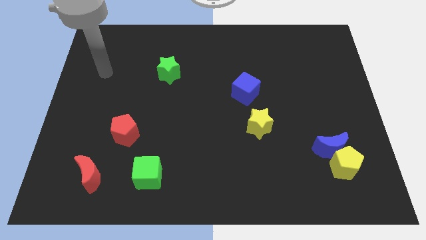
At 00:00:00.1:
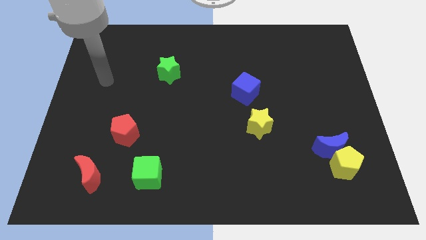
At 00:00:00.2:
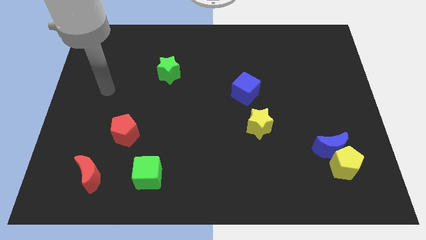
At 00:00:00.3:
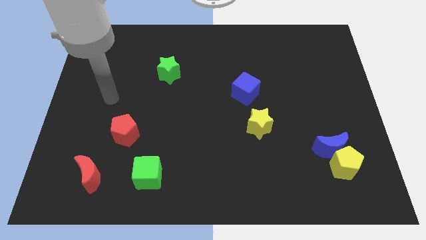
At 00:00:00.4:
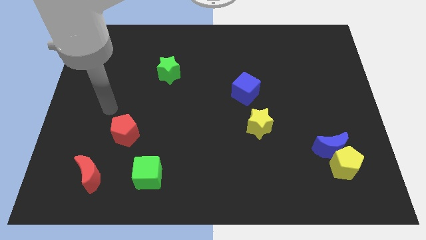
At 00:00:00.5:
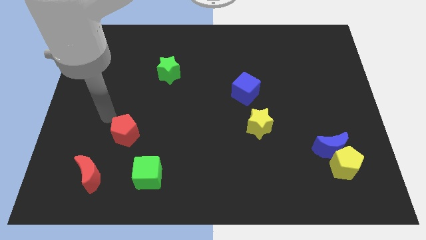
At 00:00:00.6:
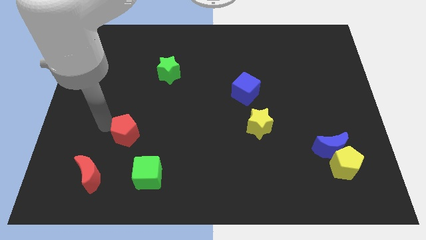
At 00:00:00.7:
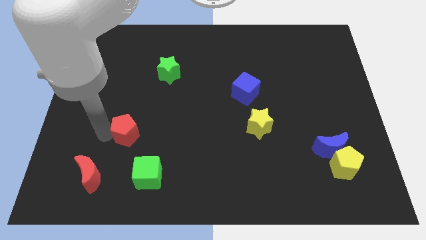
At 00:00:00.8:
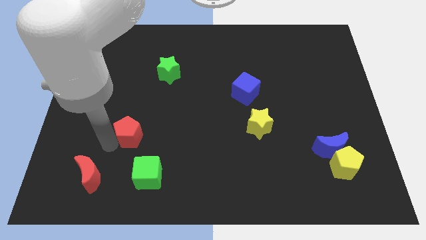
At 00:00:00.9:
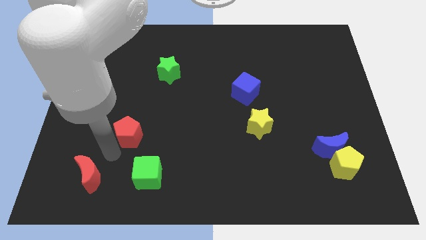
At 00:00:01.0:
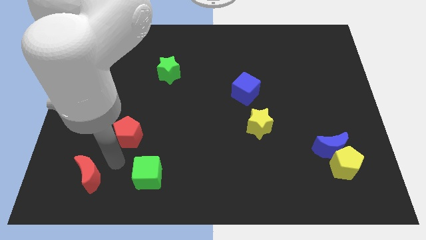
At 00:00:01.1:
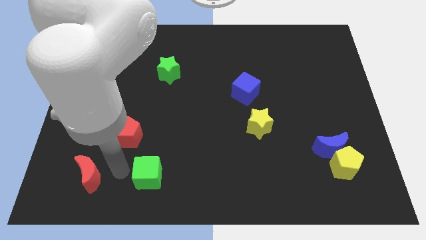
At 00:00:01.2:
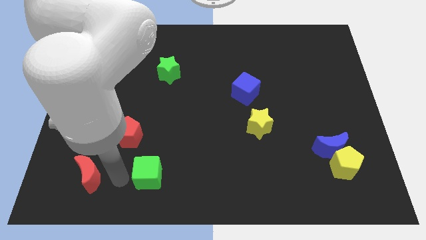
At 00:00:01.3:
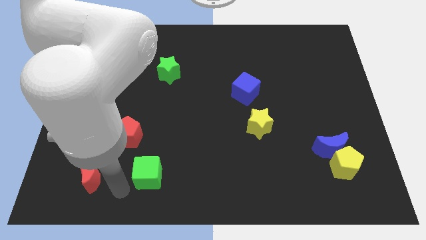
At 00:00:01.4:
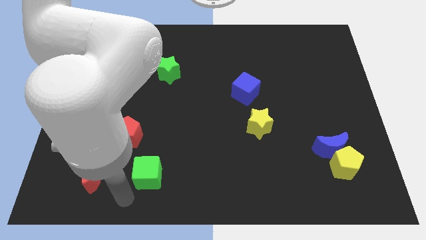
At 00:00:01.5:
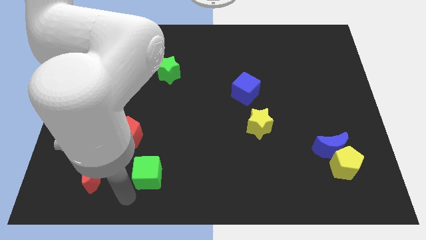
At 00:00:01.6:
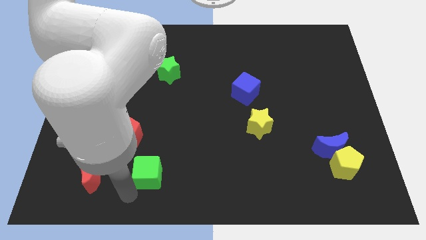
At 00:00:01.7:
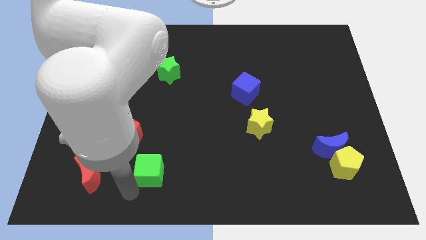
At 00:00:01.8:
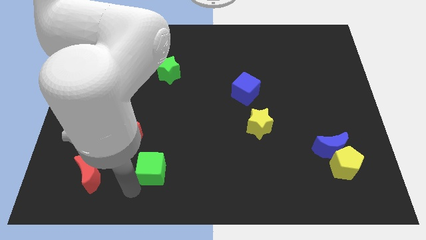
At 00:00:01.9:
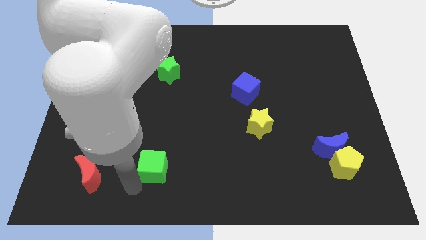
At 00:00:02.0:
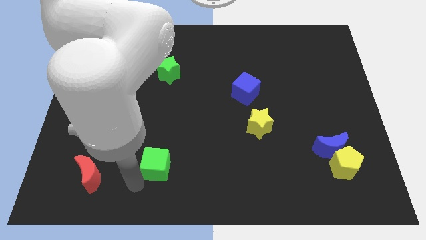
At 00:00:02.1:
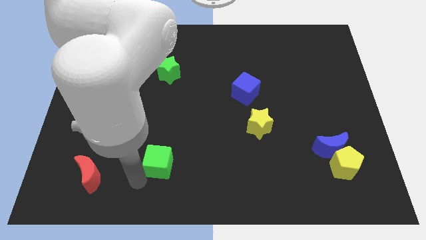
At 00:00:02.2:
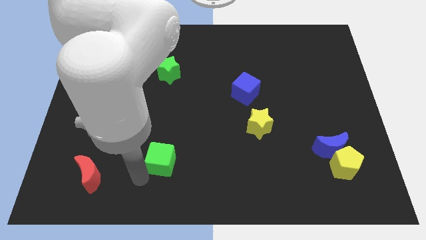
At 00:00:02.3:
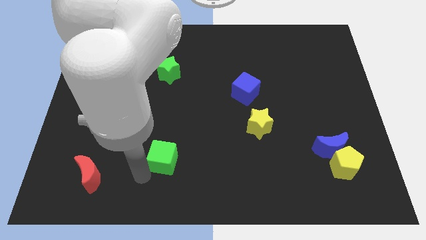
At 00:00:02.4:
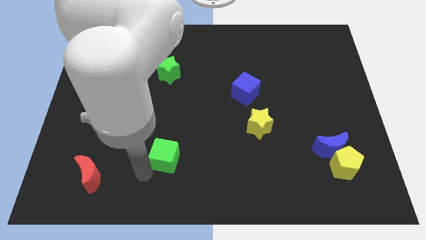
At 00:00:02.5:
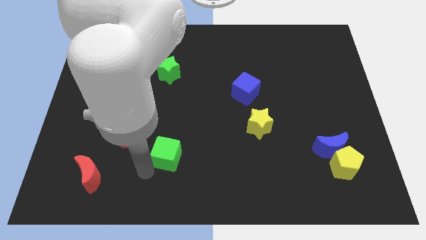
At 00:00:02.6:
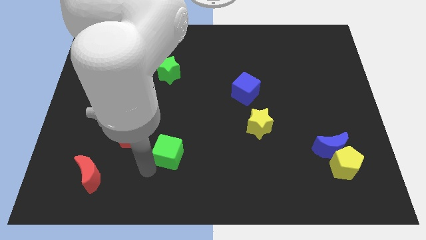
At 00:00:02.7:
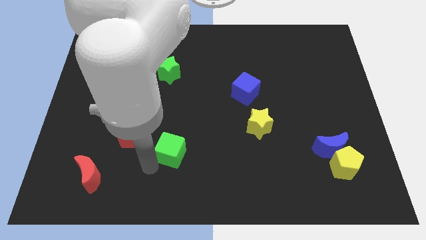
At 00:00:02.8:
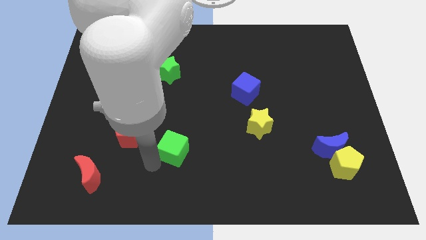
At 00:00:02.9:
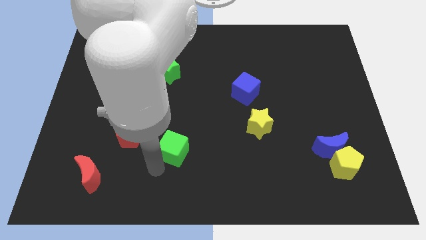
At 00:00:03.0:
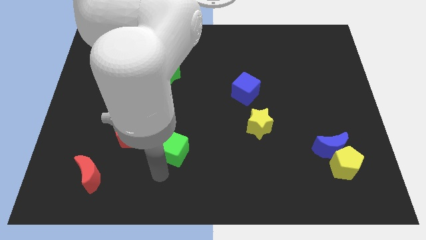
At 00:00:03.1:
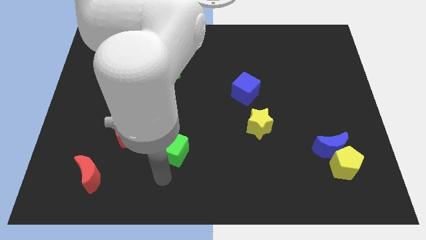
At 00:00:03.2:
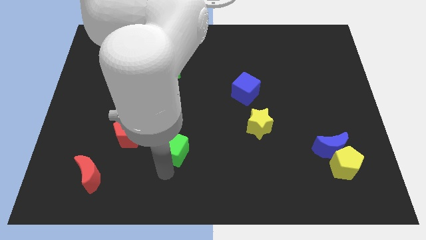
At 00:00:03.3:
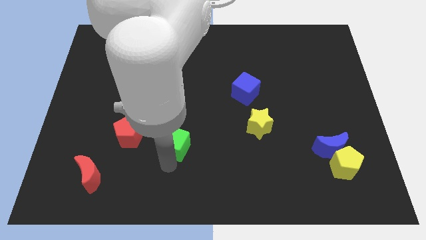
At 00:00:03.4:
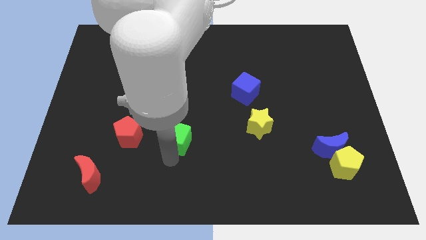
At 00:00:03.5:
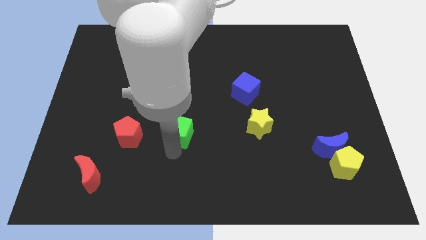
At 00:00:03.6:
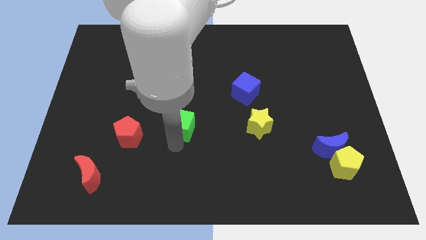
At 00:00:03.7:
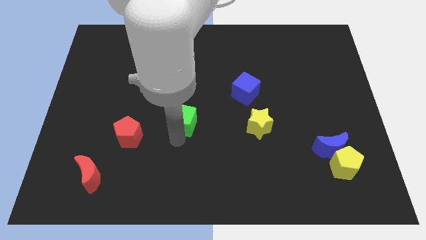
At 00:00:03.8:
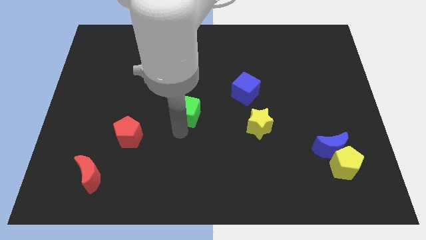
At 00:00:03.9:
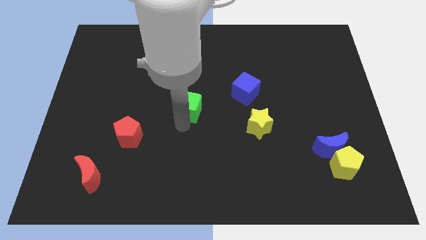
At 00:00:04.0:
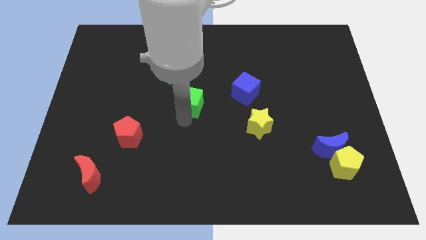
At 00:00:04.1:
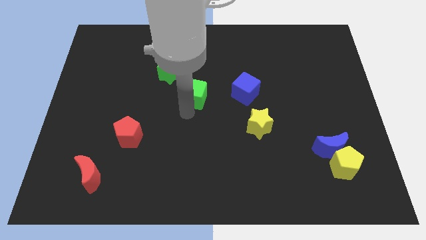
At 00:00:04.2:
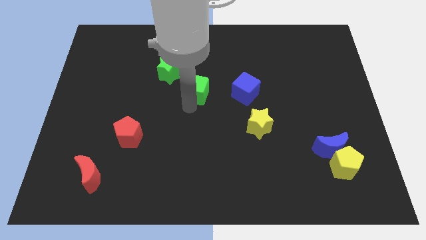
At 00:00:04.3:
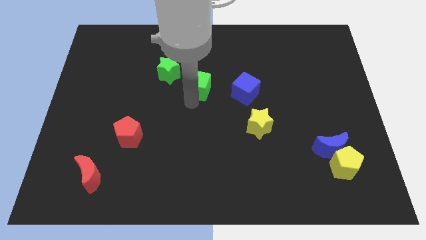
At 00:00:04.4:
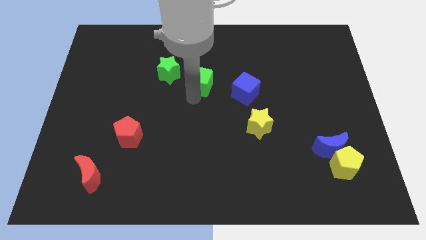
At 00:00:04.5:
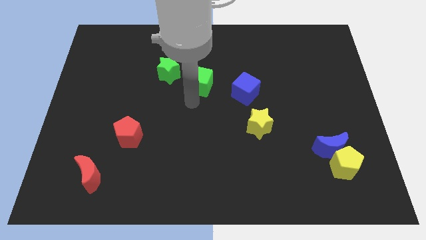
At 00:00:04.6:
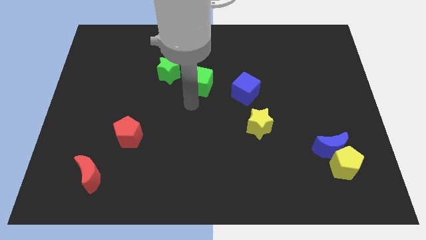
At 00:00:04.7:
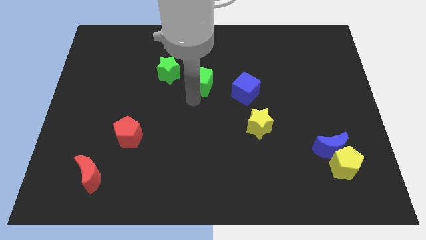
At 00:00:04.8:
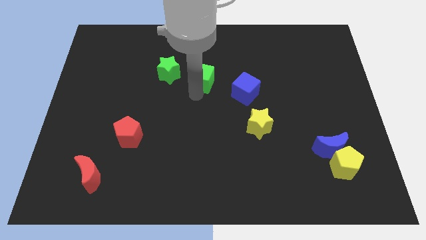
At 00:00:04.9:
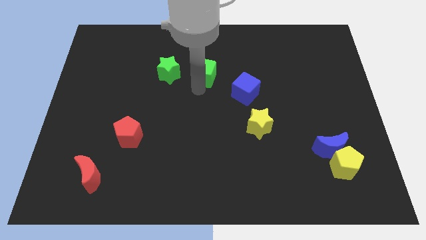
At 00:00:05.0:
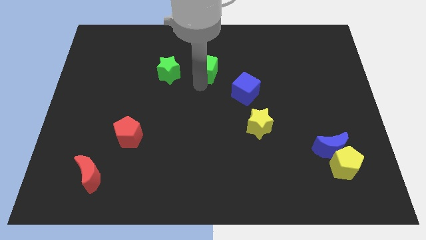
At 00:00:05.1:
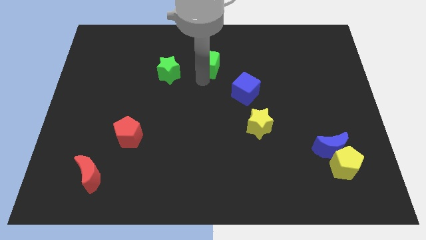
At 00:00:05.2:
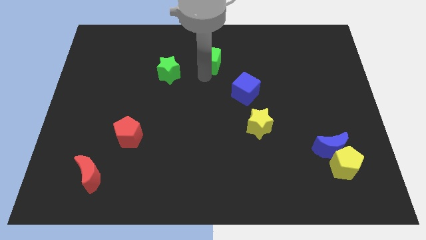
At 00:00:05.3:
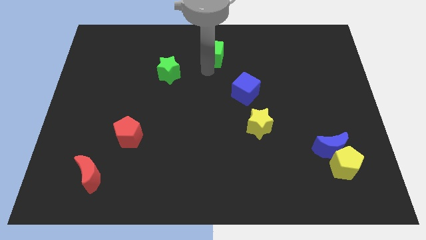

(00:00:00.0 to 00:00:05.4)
slide the green cube to the top

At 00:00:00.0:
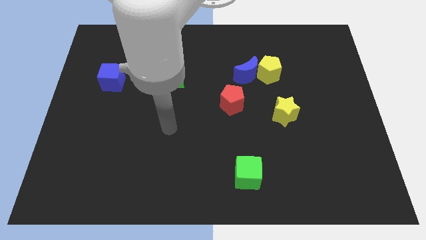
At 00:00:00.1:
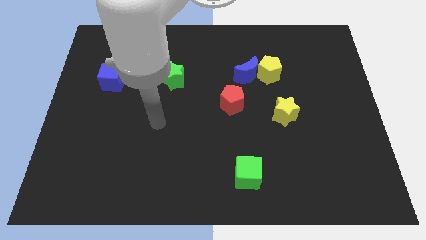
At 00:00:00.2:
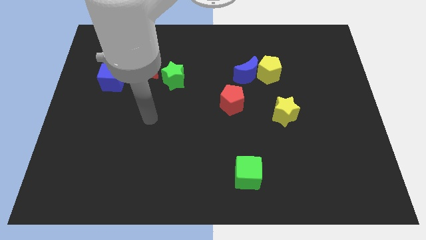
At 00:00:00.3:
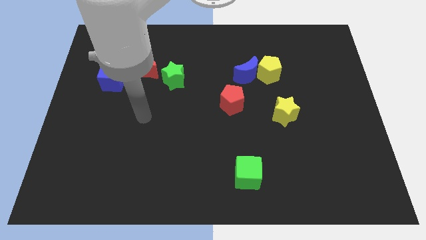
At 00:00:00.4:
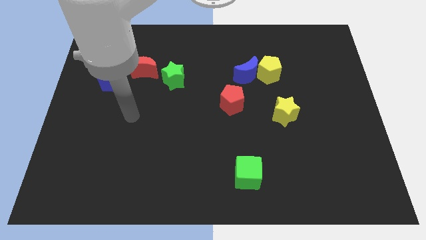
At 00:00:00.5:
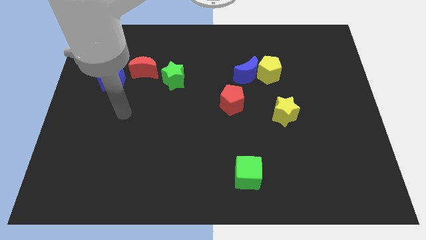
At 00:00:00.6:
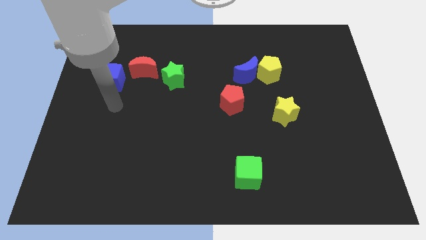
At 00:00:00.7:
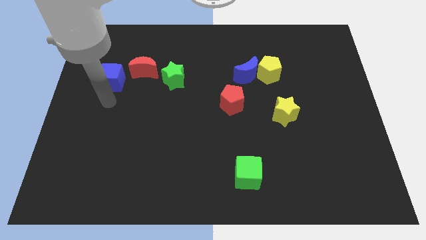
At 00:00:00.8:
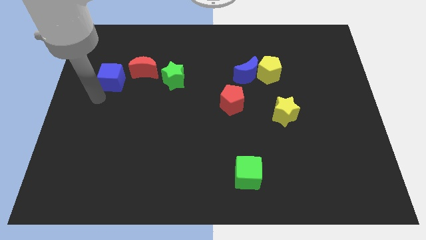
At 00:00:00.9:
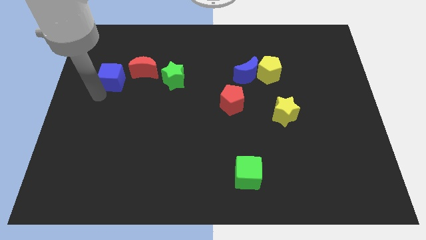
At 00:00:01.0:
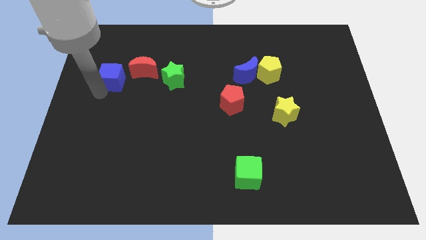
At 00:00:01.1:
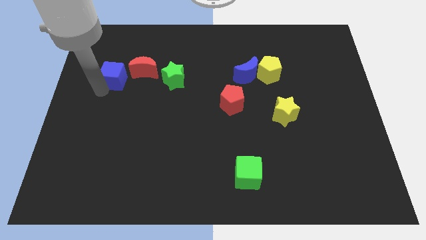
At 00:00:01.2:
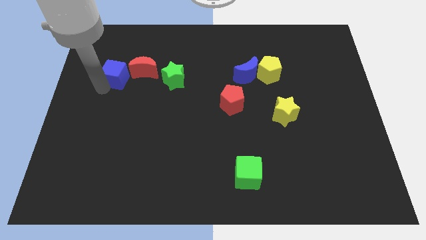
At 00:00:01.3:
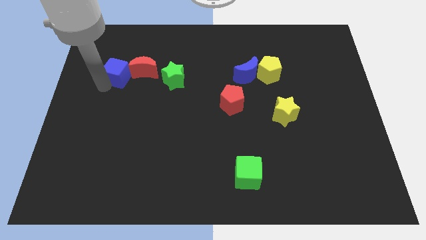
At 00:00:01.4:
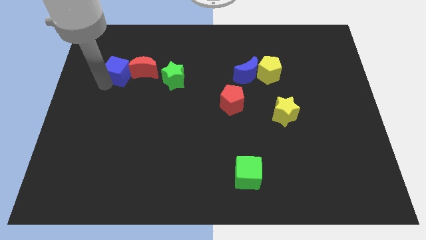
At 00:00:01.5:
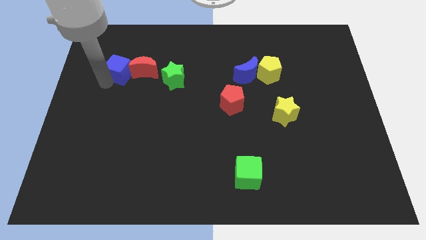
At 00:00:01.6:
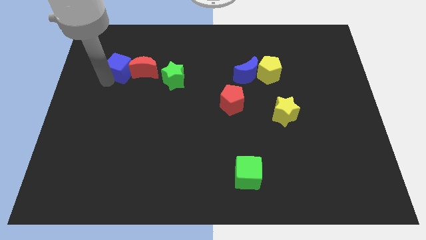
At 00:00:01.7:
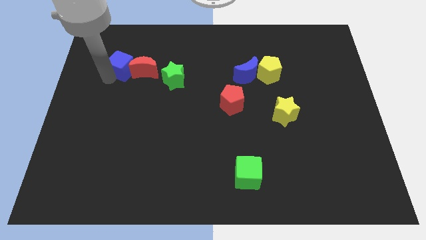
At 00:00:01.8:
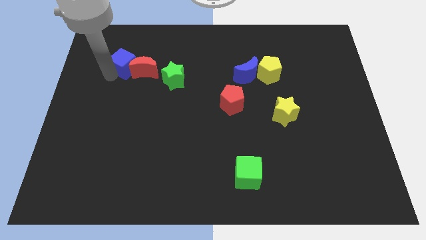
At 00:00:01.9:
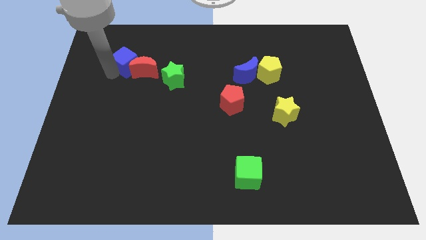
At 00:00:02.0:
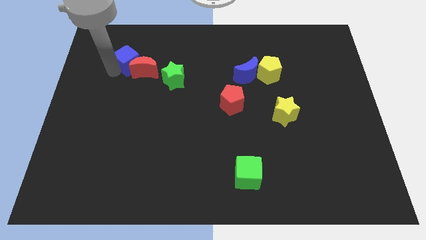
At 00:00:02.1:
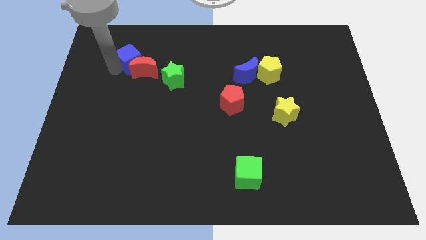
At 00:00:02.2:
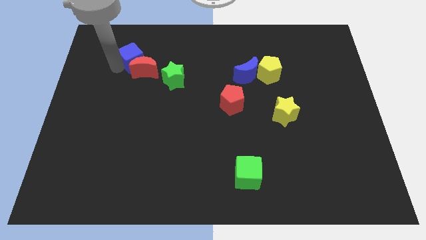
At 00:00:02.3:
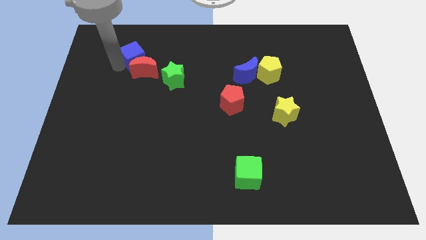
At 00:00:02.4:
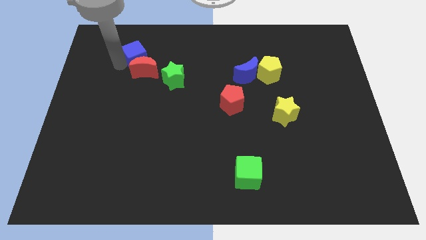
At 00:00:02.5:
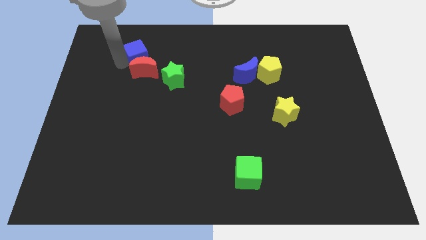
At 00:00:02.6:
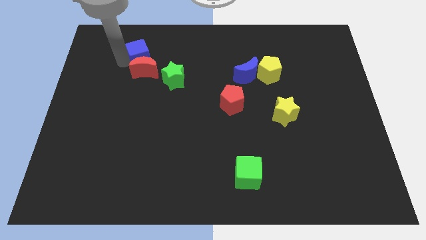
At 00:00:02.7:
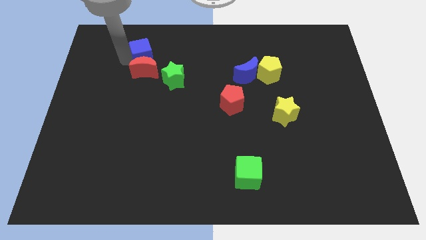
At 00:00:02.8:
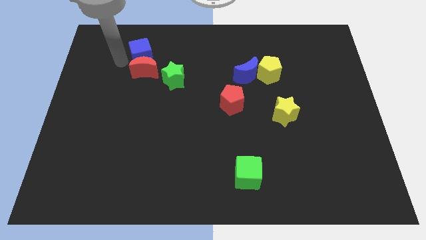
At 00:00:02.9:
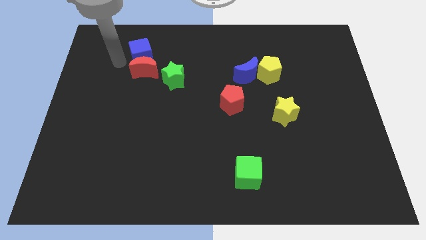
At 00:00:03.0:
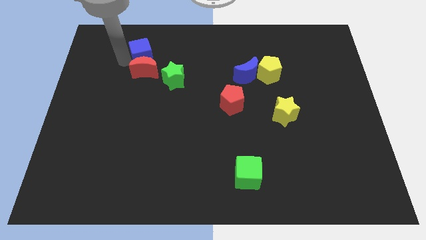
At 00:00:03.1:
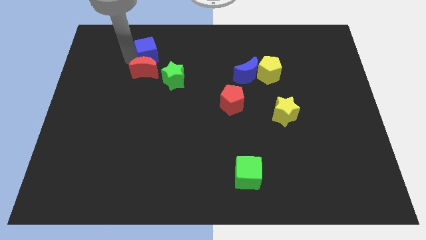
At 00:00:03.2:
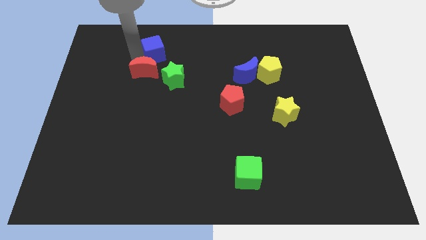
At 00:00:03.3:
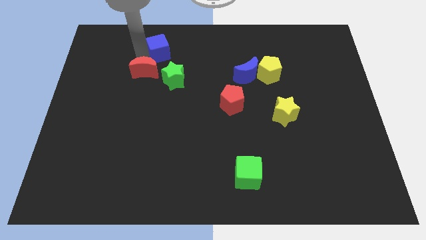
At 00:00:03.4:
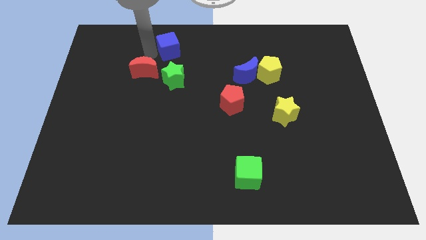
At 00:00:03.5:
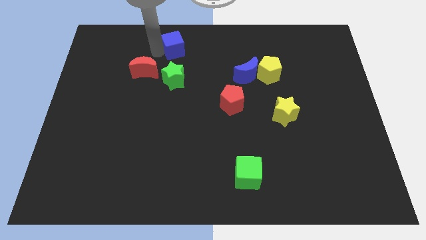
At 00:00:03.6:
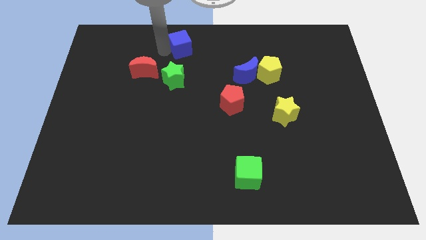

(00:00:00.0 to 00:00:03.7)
push the blue cube to the top
